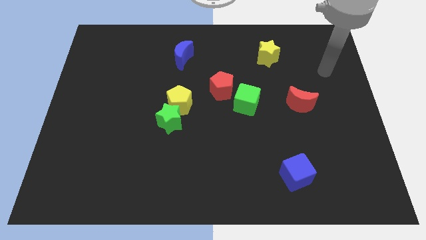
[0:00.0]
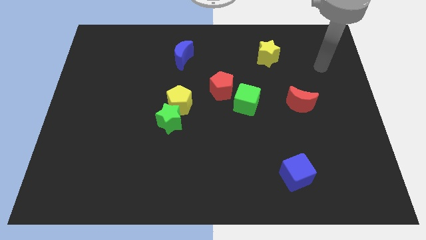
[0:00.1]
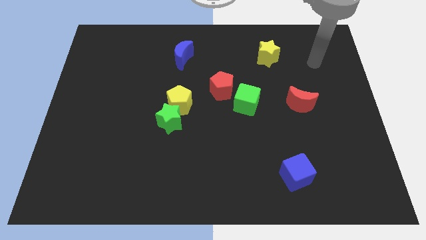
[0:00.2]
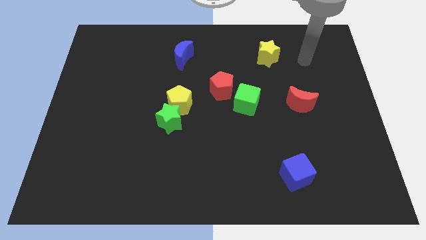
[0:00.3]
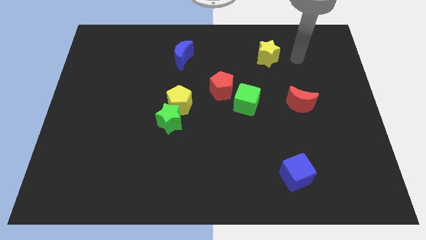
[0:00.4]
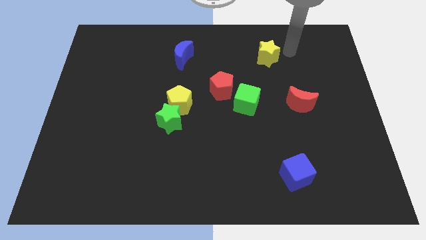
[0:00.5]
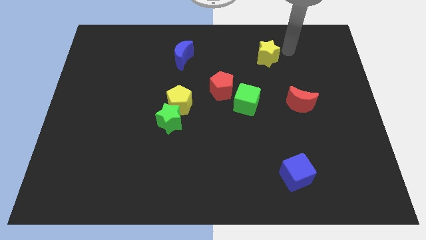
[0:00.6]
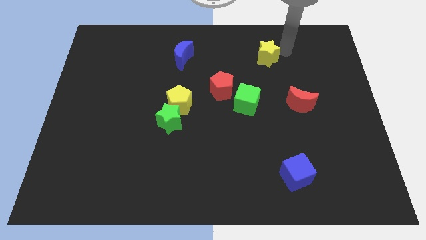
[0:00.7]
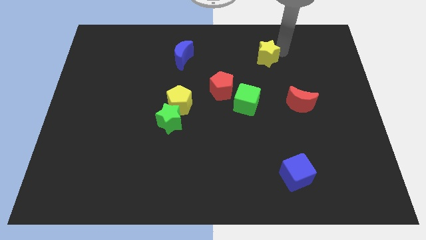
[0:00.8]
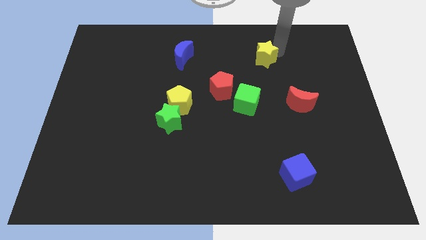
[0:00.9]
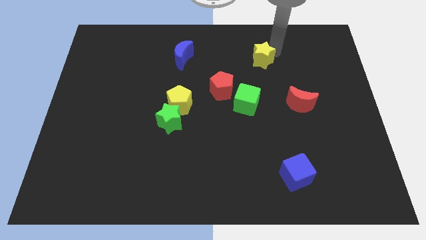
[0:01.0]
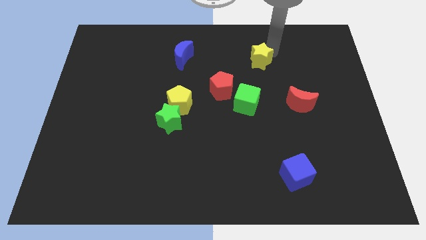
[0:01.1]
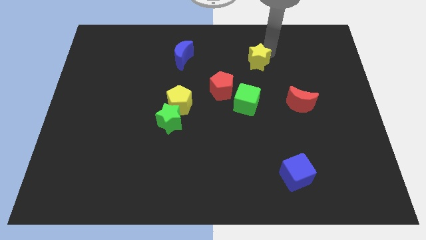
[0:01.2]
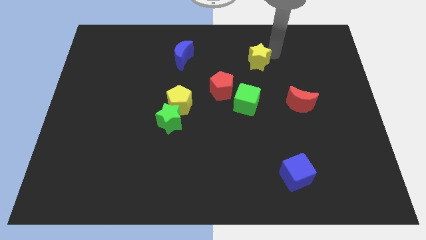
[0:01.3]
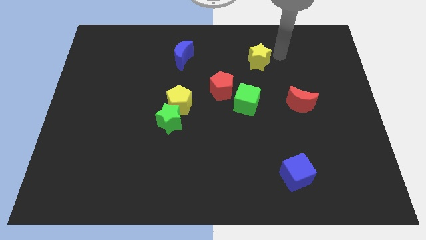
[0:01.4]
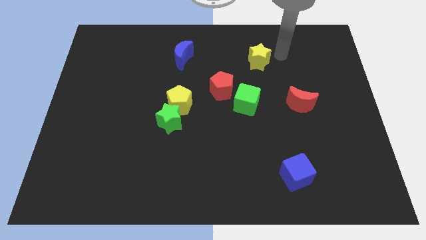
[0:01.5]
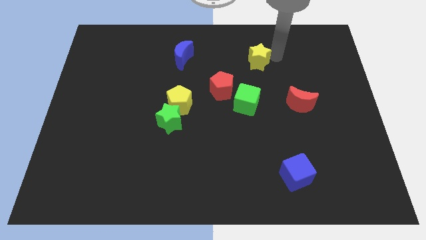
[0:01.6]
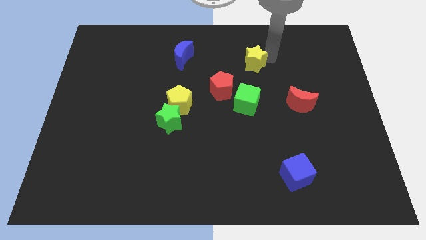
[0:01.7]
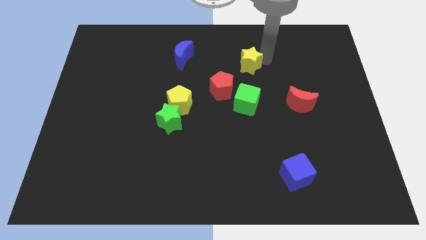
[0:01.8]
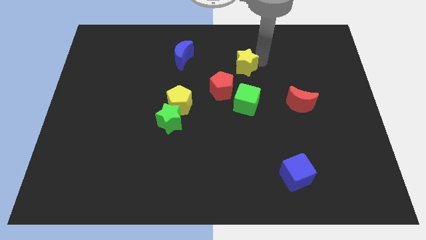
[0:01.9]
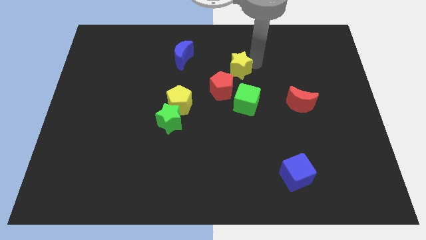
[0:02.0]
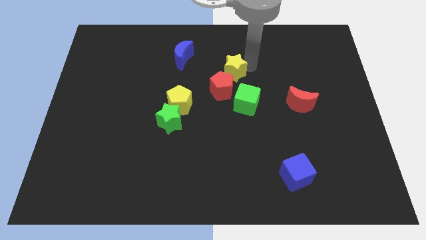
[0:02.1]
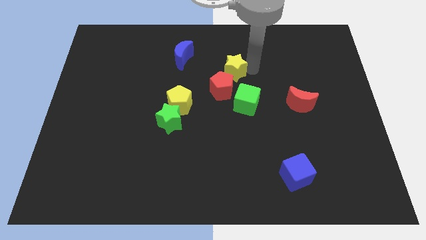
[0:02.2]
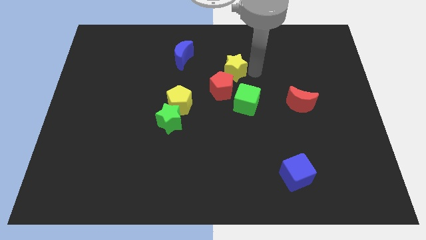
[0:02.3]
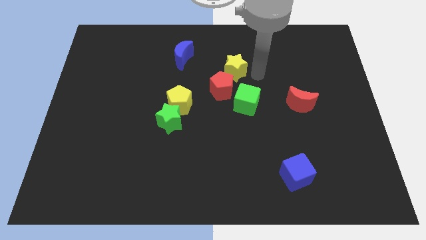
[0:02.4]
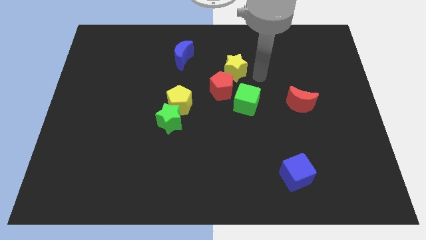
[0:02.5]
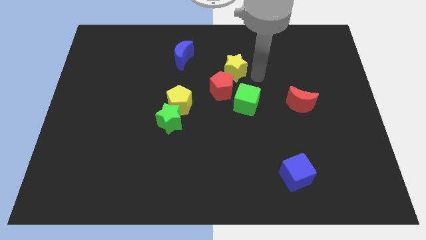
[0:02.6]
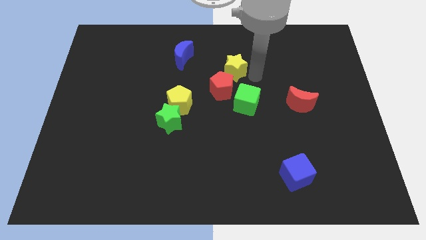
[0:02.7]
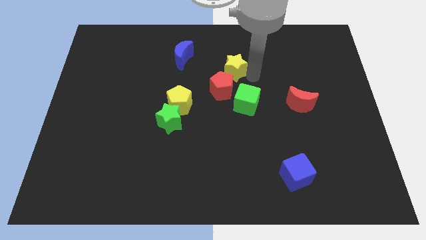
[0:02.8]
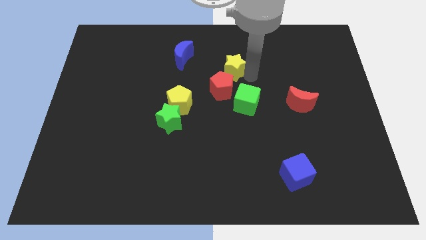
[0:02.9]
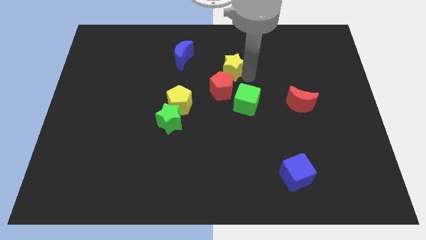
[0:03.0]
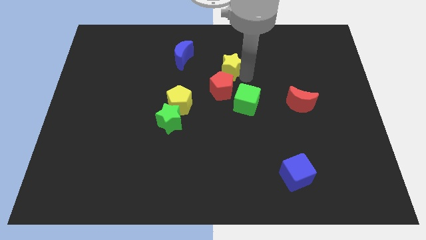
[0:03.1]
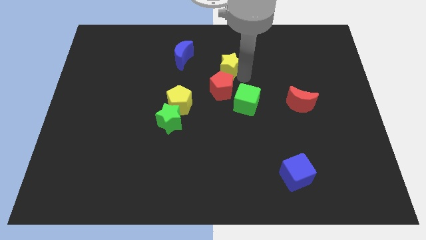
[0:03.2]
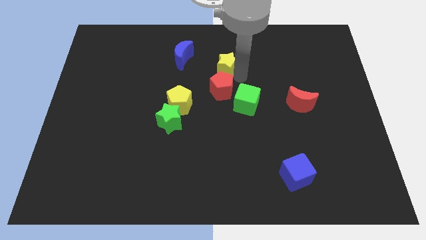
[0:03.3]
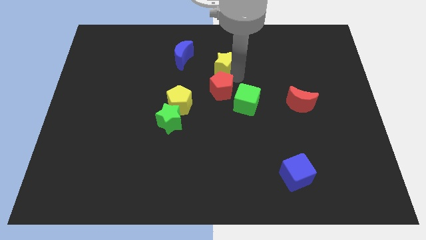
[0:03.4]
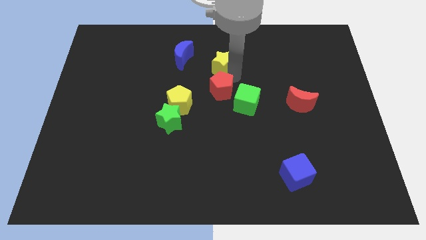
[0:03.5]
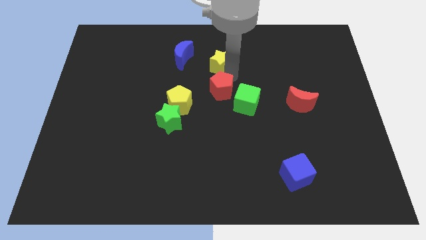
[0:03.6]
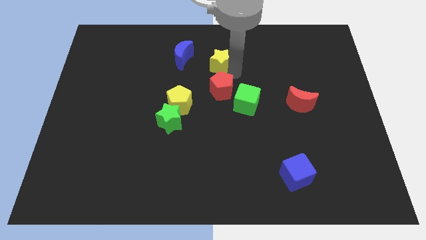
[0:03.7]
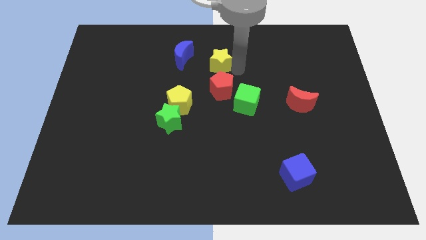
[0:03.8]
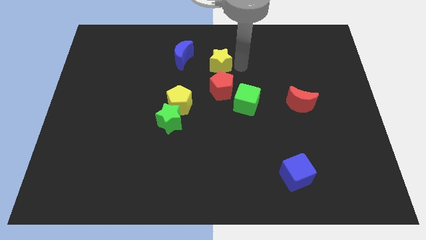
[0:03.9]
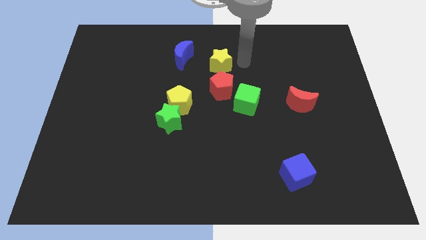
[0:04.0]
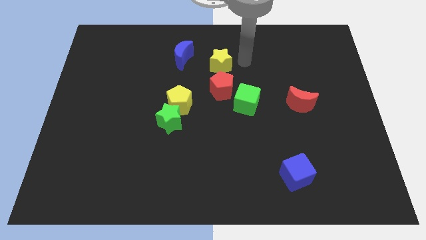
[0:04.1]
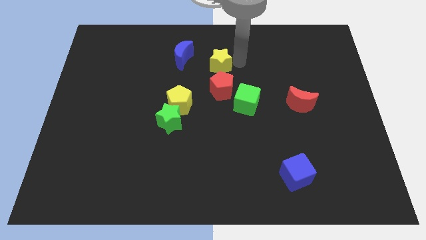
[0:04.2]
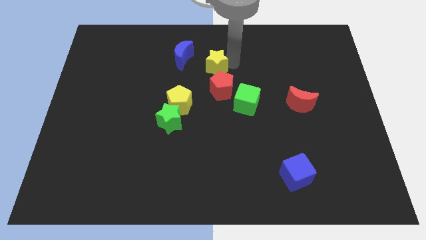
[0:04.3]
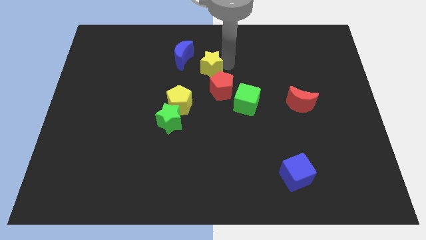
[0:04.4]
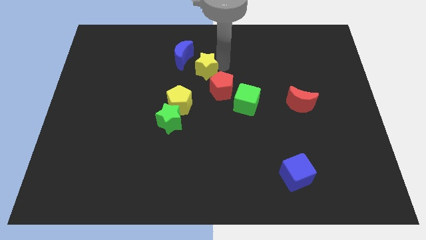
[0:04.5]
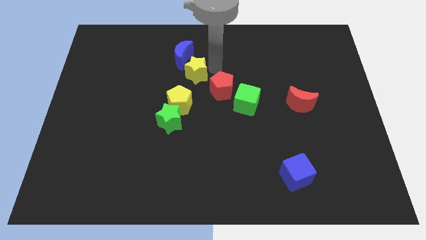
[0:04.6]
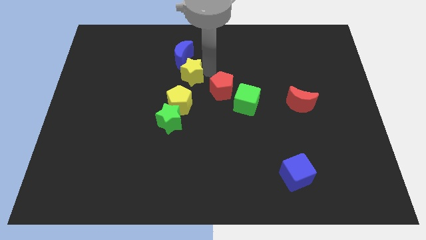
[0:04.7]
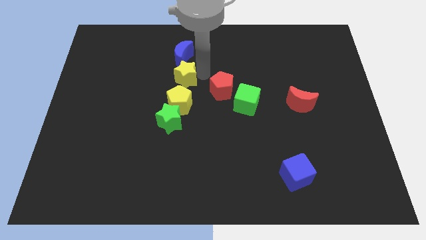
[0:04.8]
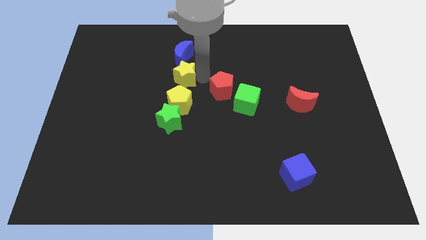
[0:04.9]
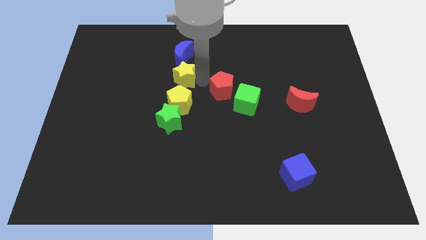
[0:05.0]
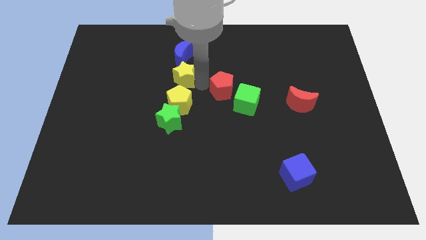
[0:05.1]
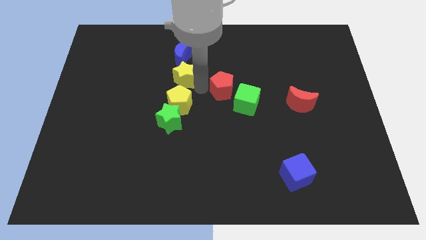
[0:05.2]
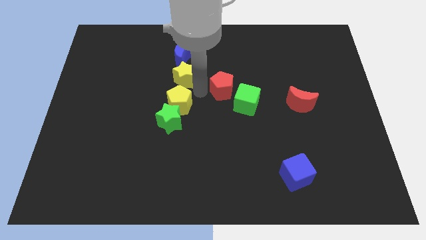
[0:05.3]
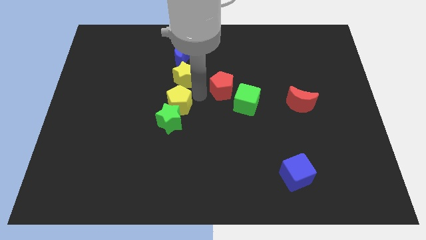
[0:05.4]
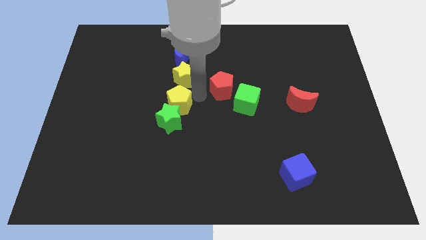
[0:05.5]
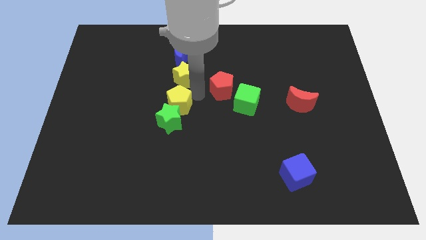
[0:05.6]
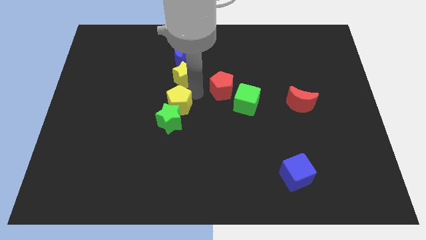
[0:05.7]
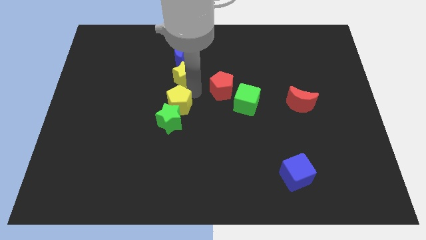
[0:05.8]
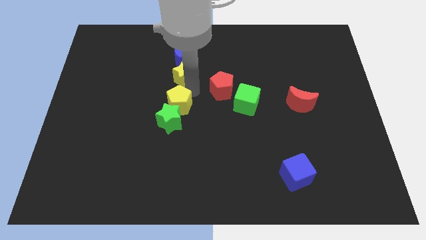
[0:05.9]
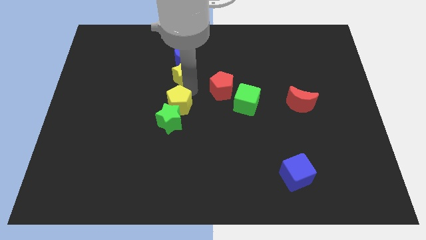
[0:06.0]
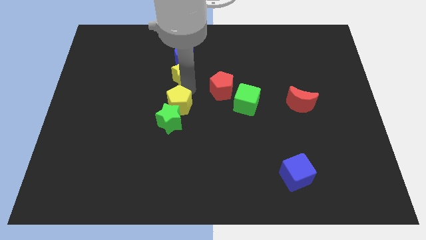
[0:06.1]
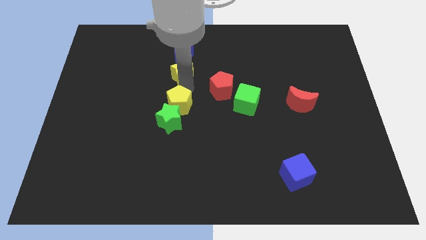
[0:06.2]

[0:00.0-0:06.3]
push the yellow star to the left

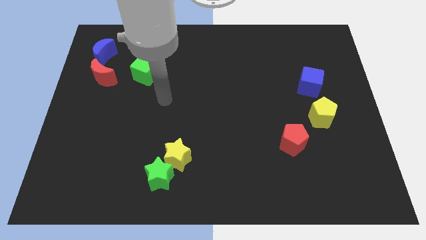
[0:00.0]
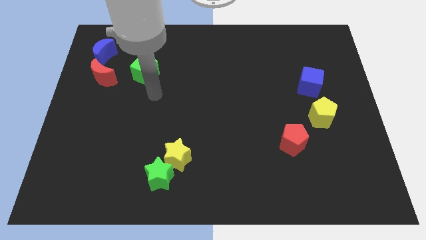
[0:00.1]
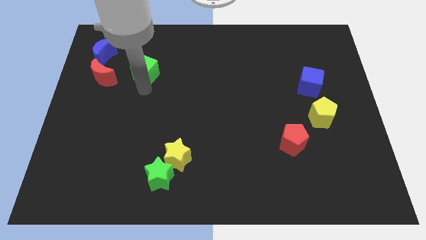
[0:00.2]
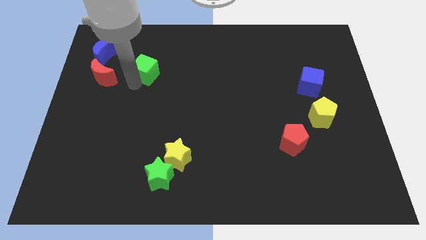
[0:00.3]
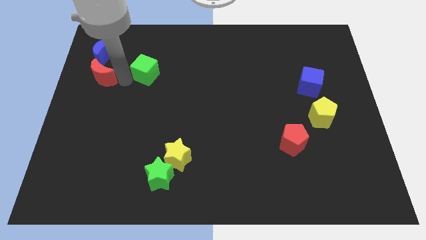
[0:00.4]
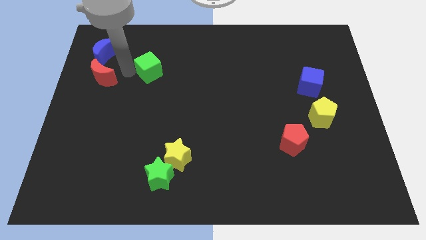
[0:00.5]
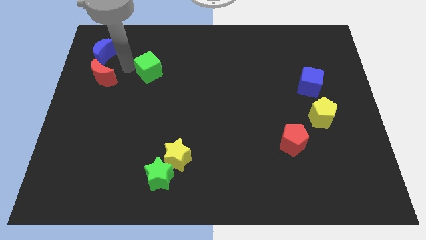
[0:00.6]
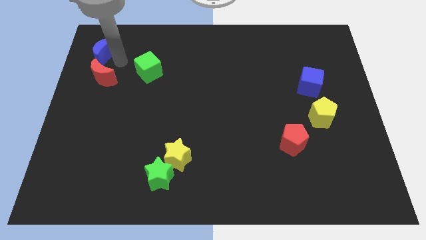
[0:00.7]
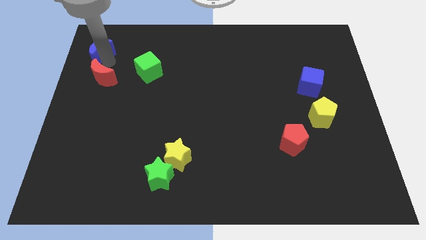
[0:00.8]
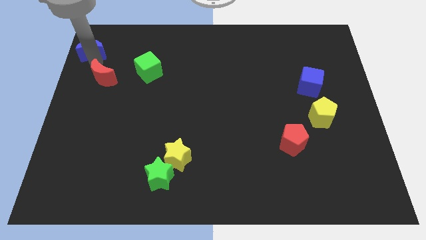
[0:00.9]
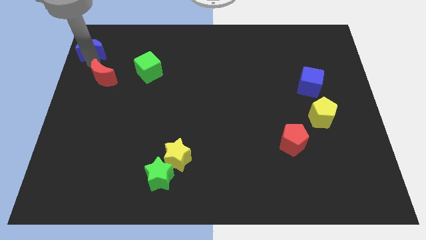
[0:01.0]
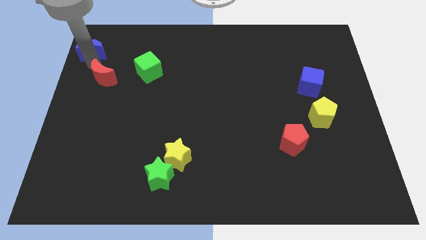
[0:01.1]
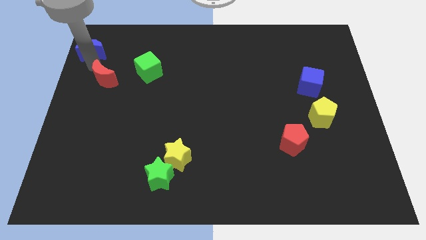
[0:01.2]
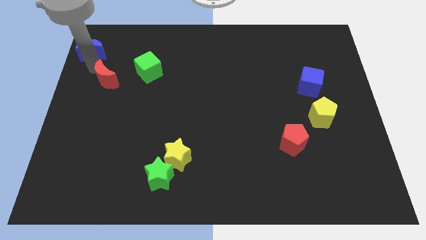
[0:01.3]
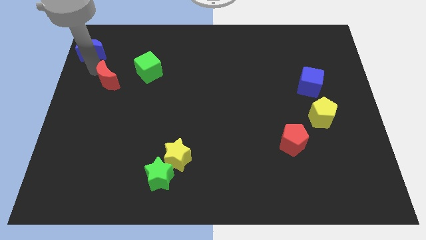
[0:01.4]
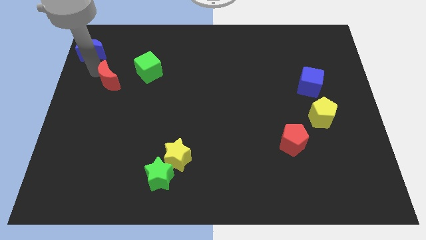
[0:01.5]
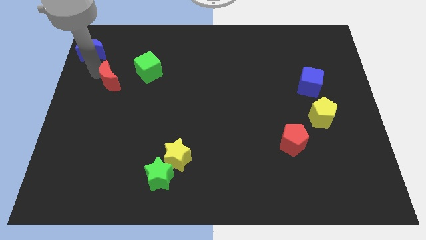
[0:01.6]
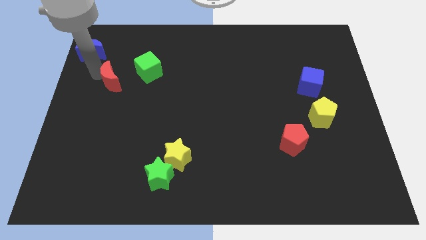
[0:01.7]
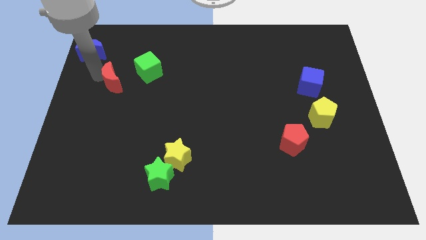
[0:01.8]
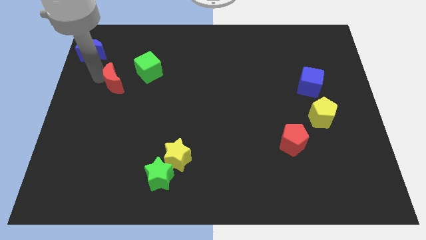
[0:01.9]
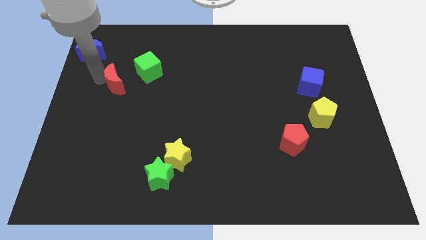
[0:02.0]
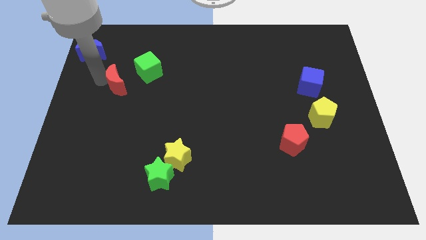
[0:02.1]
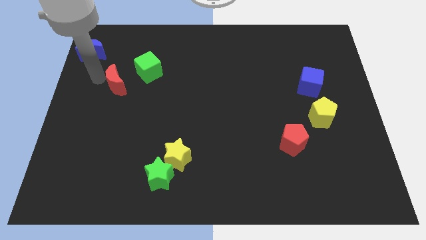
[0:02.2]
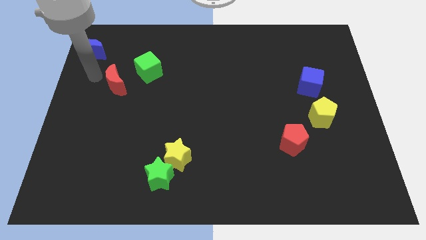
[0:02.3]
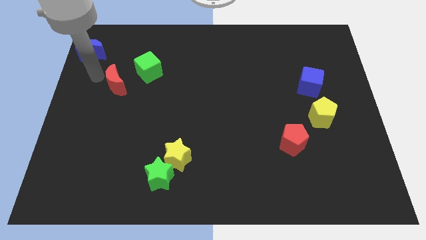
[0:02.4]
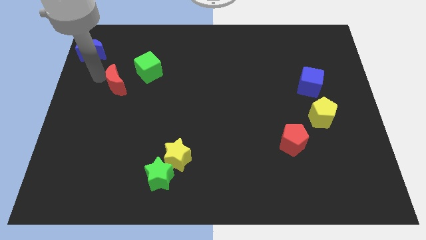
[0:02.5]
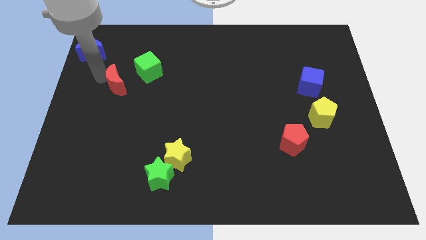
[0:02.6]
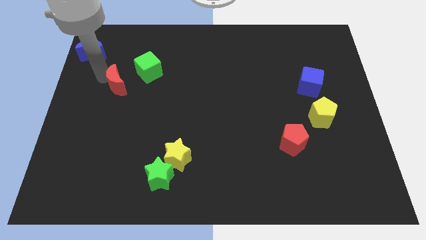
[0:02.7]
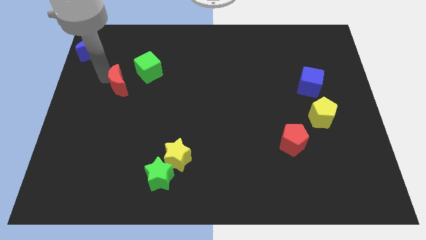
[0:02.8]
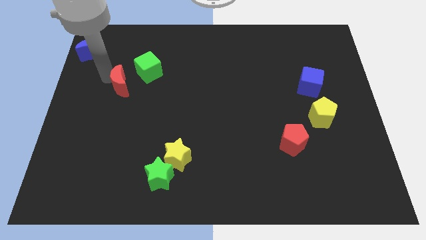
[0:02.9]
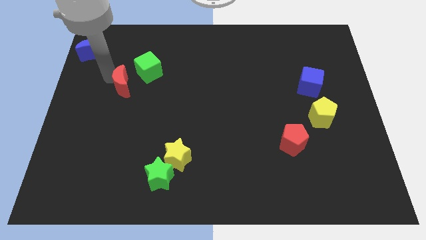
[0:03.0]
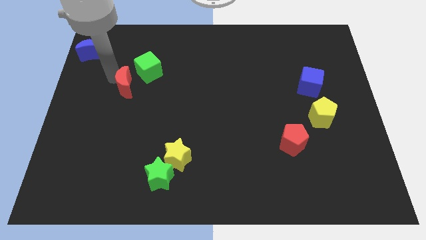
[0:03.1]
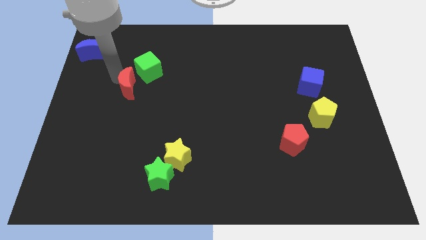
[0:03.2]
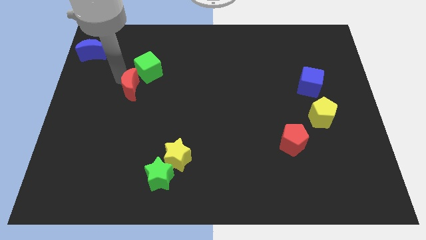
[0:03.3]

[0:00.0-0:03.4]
push the red moon to the right a little
